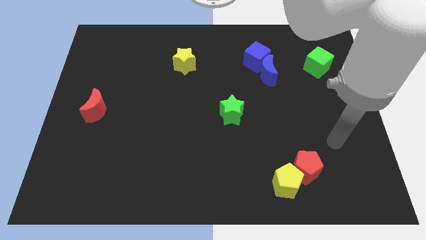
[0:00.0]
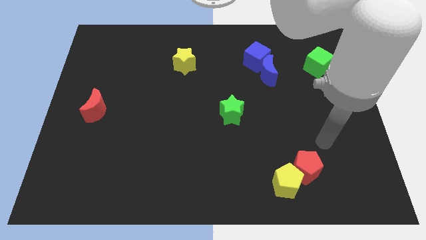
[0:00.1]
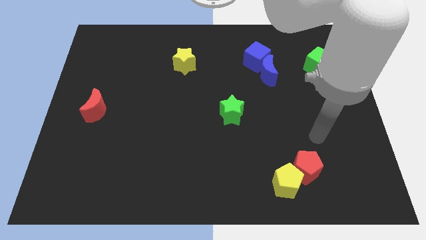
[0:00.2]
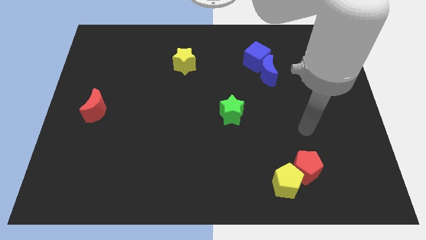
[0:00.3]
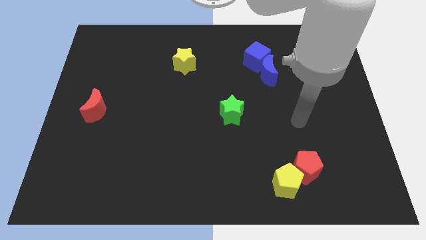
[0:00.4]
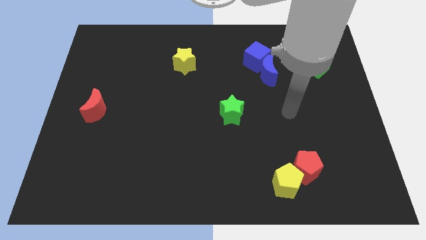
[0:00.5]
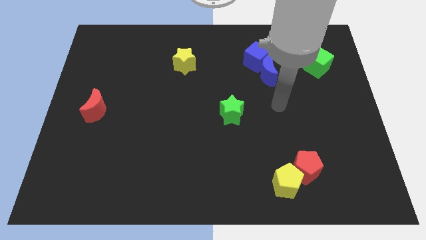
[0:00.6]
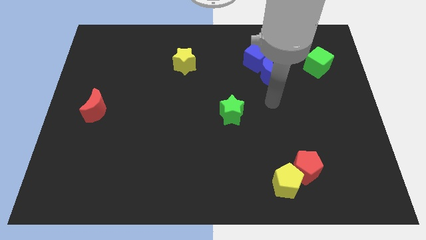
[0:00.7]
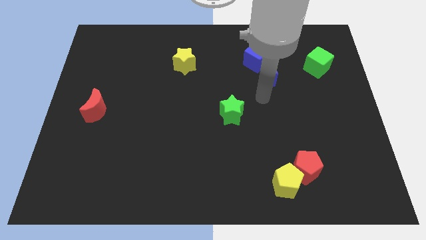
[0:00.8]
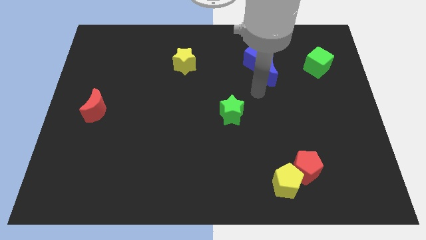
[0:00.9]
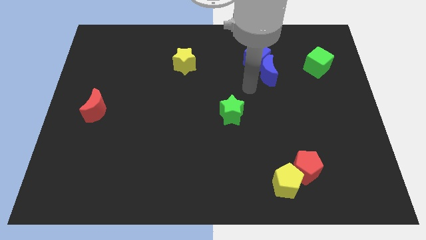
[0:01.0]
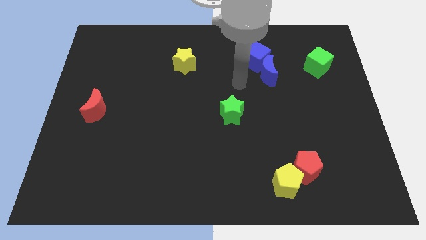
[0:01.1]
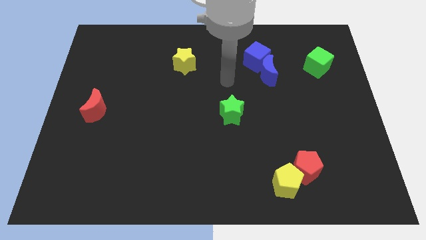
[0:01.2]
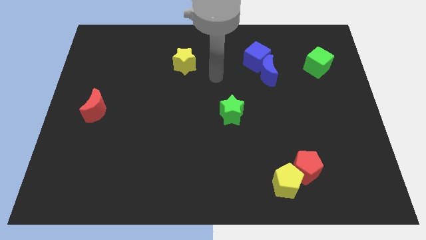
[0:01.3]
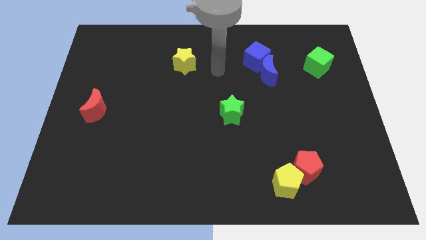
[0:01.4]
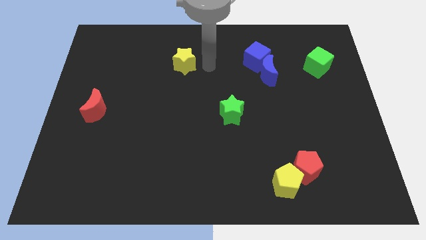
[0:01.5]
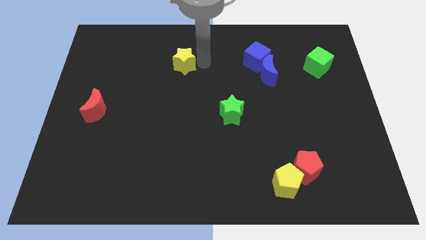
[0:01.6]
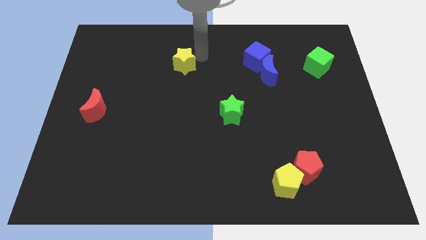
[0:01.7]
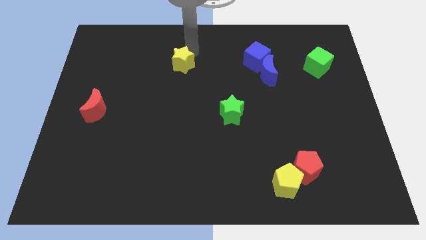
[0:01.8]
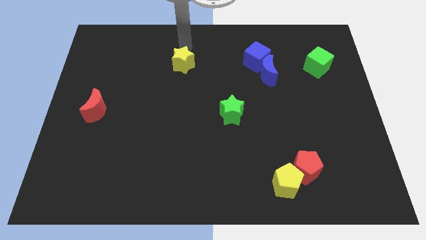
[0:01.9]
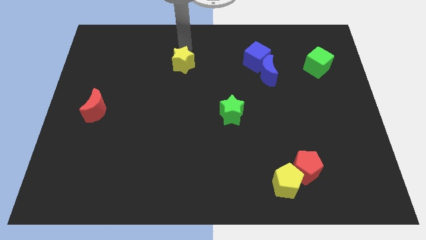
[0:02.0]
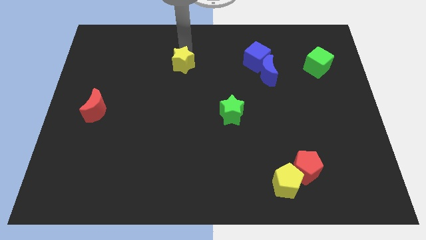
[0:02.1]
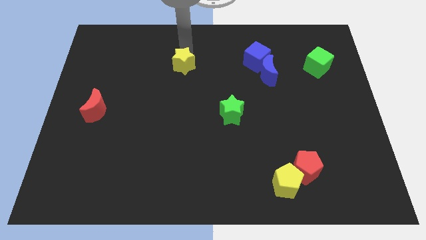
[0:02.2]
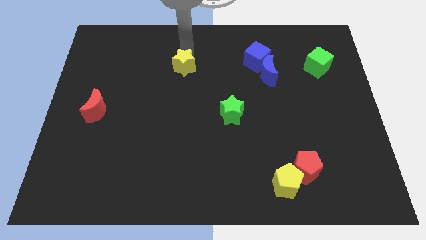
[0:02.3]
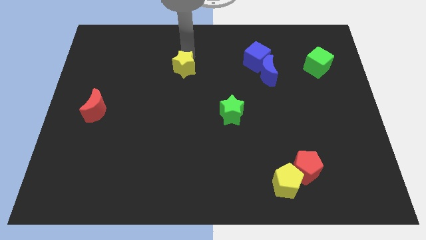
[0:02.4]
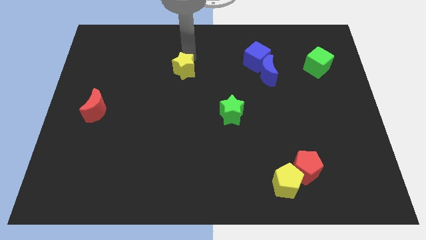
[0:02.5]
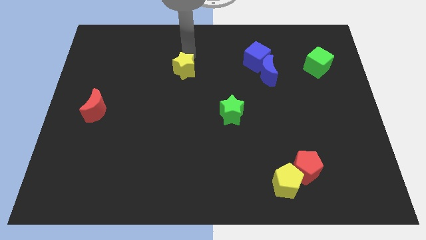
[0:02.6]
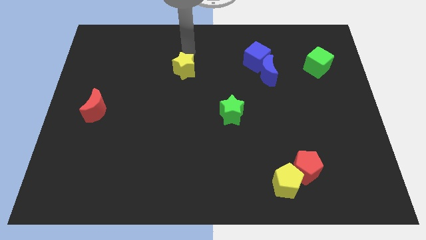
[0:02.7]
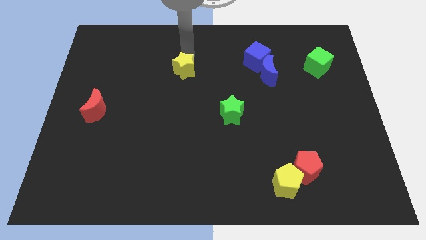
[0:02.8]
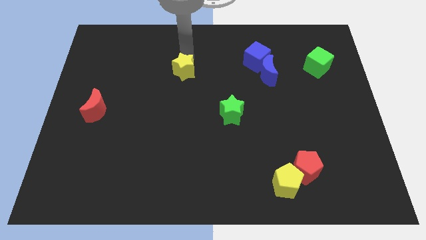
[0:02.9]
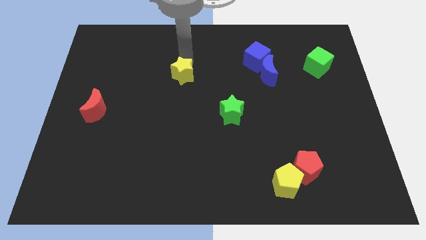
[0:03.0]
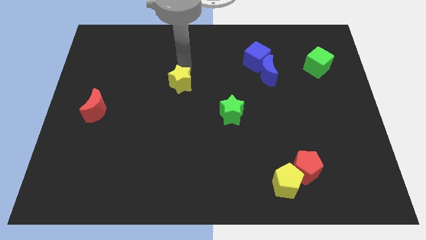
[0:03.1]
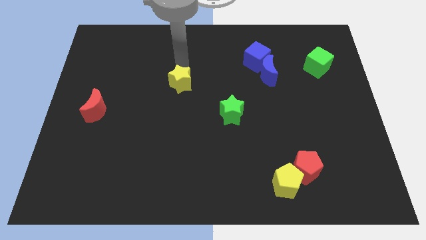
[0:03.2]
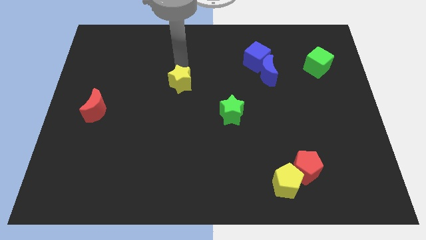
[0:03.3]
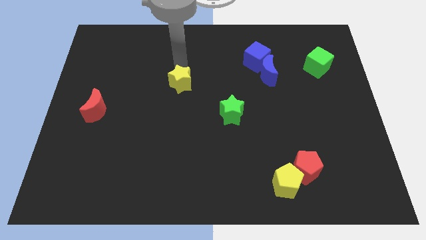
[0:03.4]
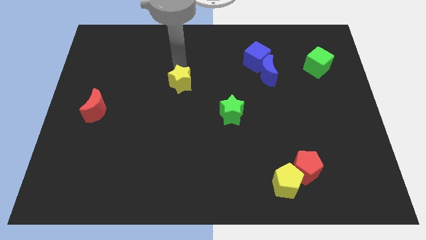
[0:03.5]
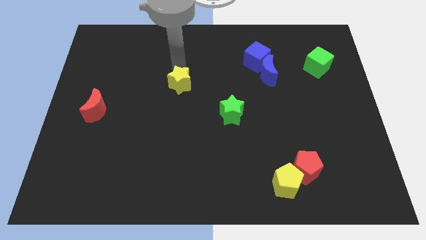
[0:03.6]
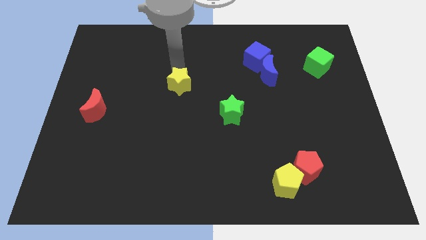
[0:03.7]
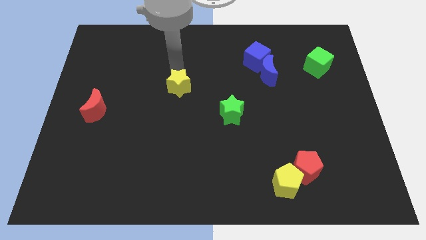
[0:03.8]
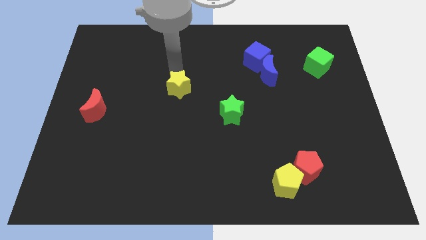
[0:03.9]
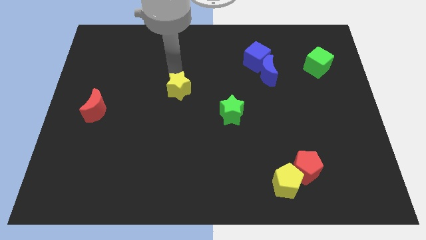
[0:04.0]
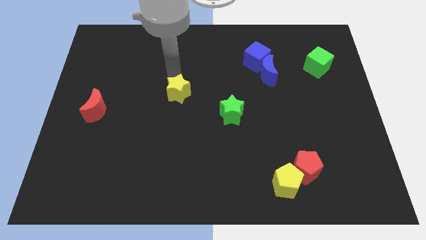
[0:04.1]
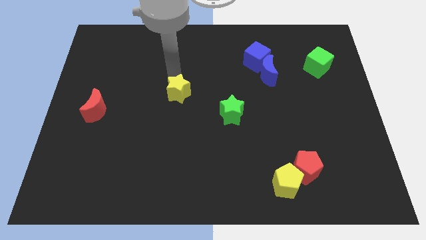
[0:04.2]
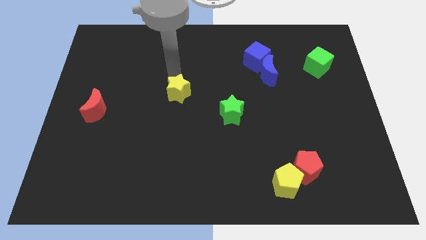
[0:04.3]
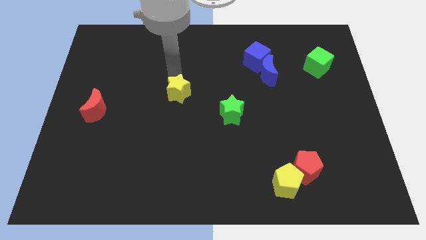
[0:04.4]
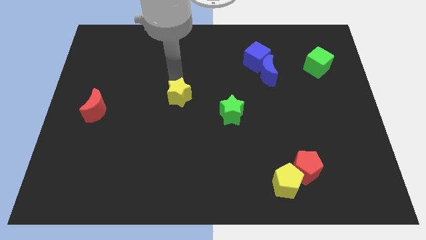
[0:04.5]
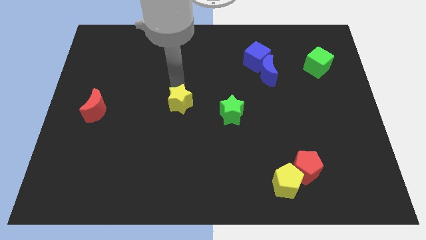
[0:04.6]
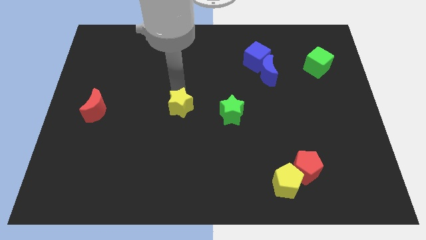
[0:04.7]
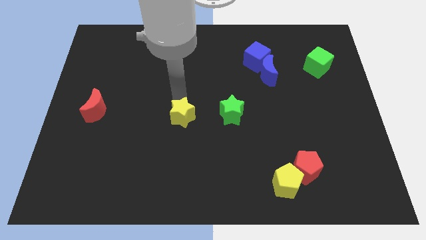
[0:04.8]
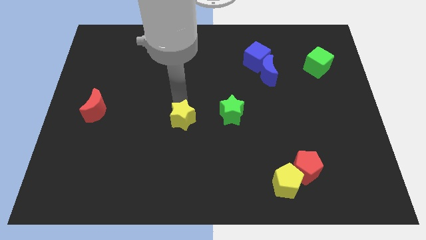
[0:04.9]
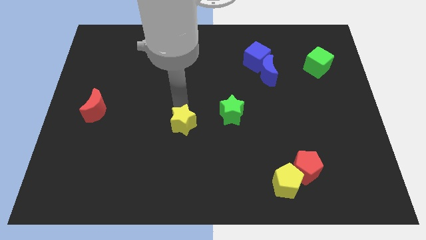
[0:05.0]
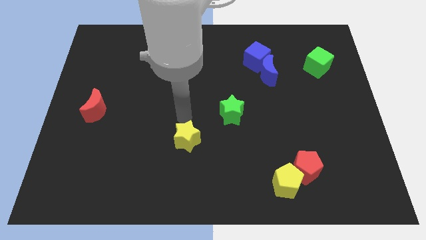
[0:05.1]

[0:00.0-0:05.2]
slide the yellow star down

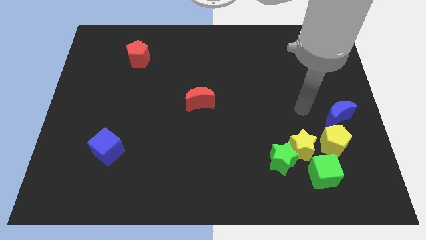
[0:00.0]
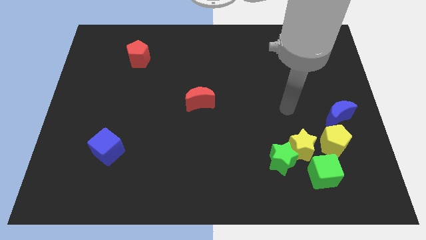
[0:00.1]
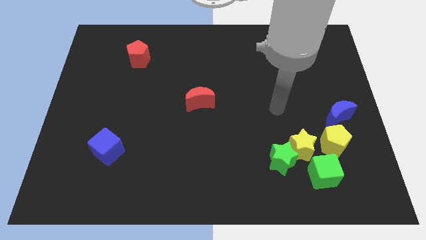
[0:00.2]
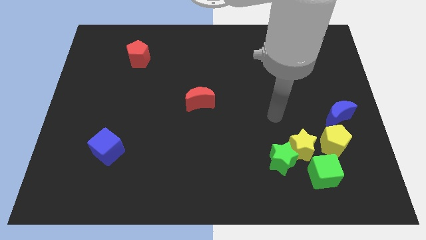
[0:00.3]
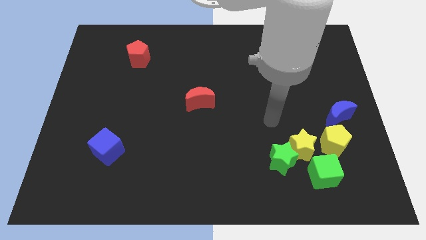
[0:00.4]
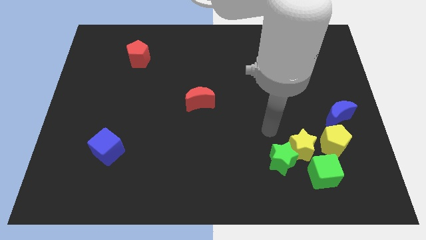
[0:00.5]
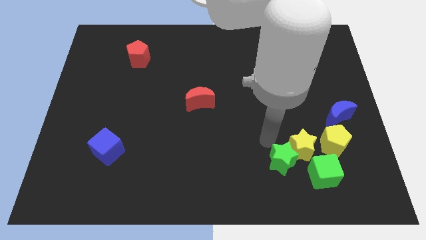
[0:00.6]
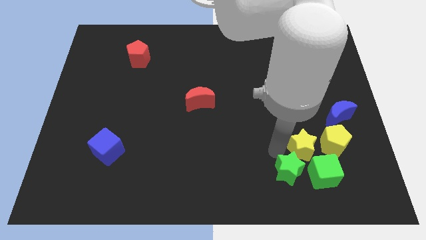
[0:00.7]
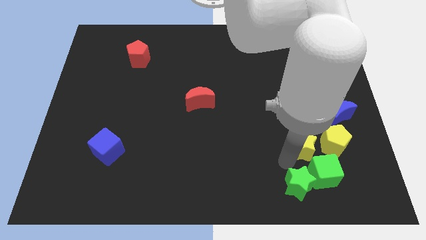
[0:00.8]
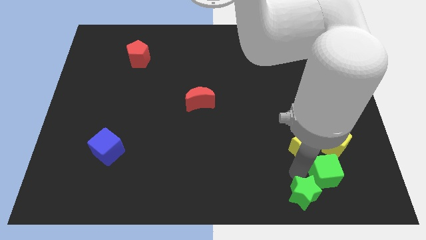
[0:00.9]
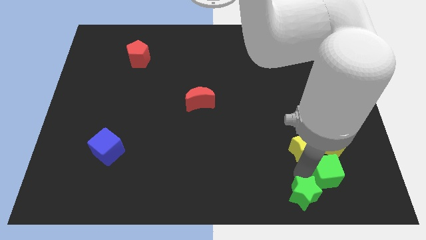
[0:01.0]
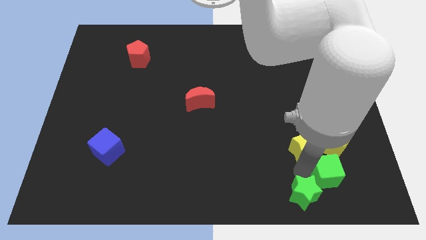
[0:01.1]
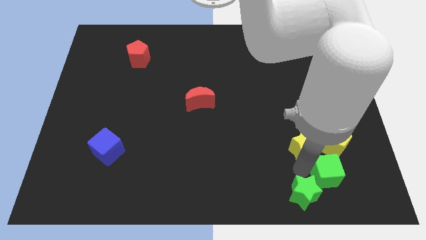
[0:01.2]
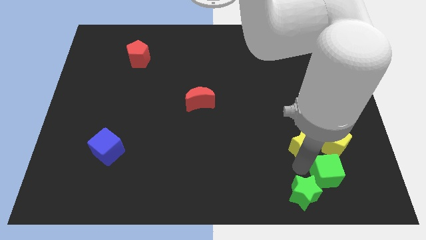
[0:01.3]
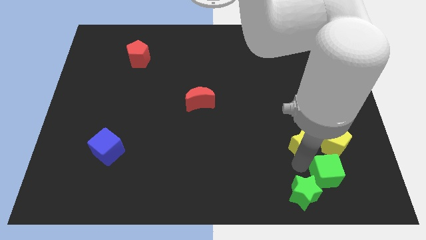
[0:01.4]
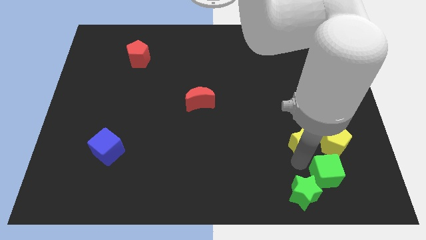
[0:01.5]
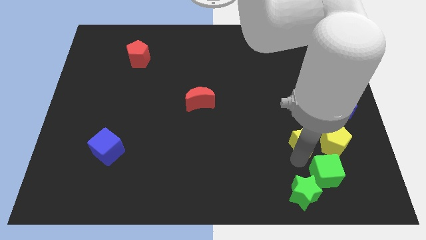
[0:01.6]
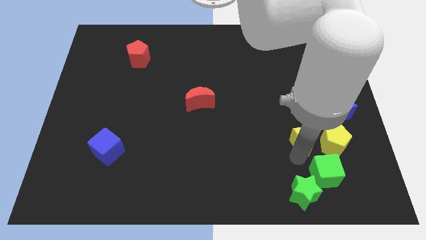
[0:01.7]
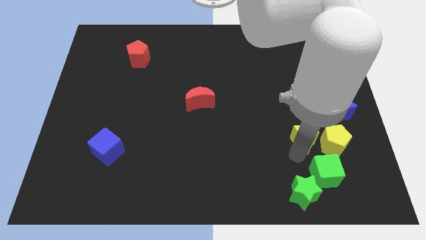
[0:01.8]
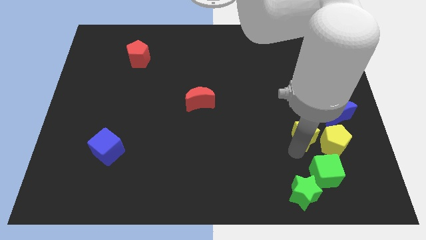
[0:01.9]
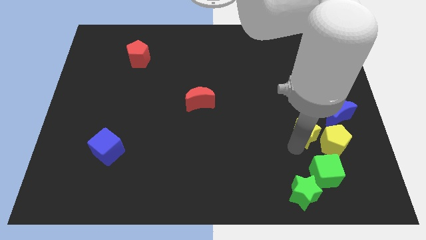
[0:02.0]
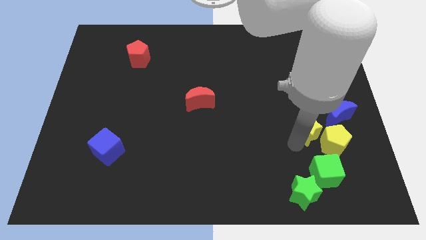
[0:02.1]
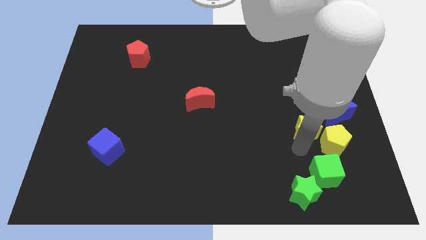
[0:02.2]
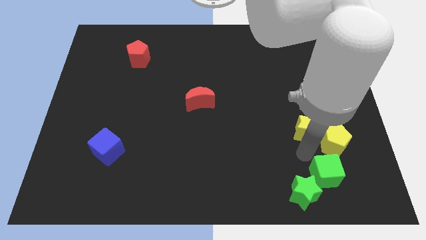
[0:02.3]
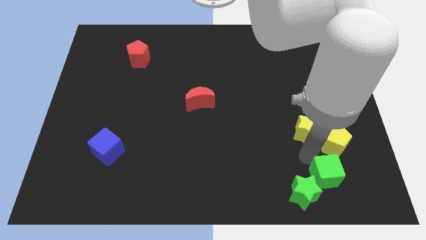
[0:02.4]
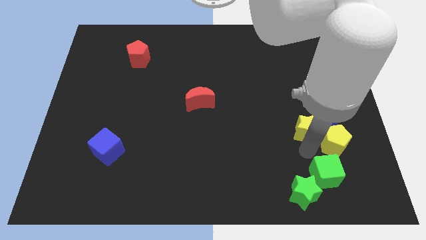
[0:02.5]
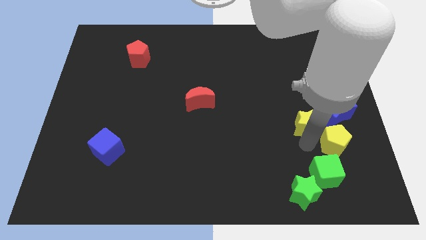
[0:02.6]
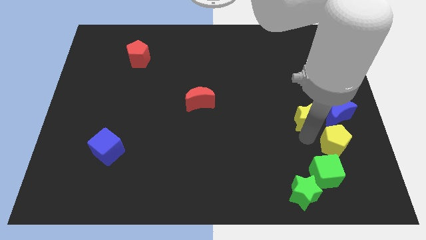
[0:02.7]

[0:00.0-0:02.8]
slightly move the yellow star up

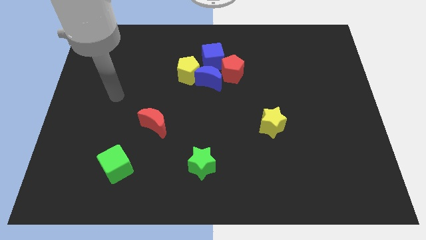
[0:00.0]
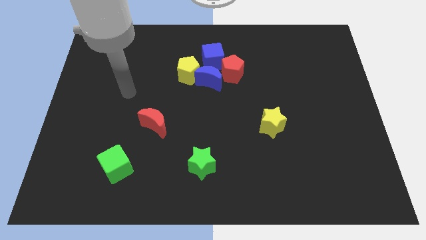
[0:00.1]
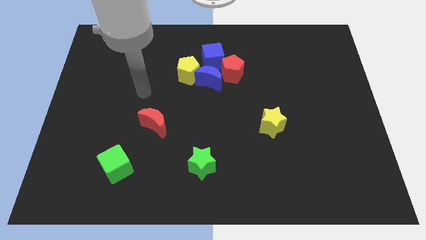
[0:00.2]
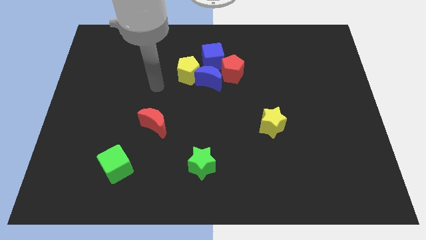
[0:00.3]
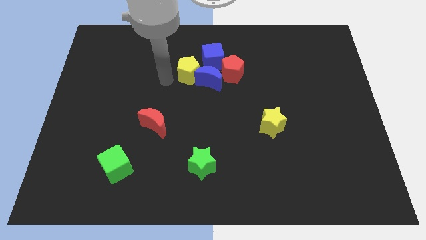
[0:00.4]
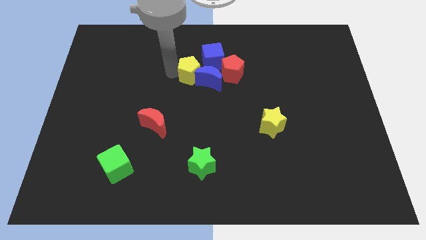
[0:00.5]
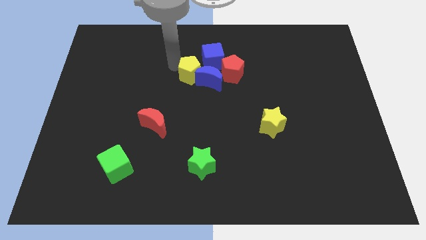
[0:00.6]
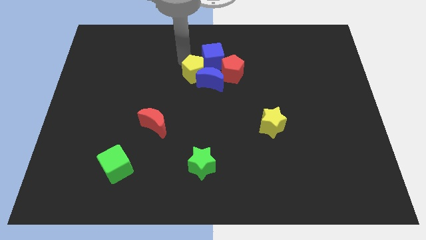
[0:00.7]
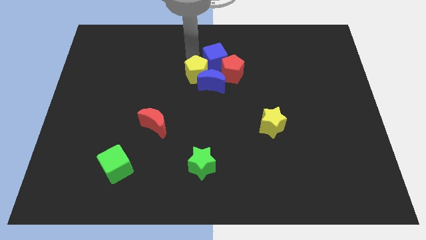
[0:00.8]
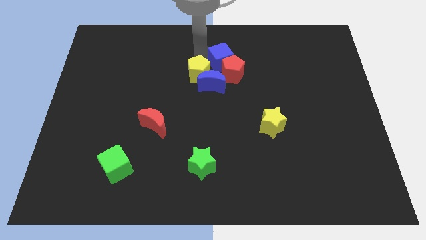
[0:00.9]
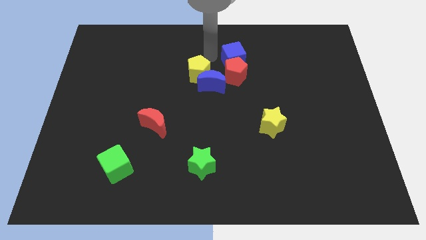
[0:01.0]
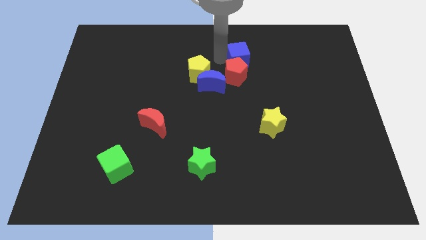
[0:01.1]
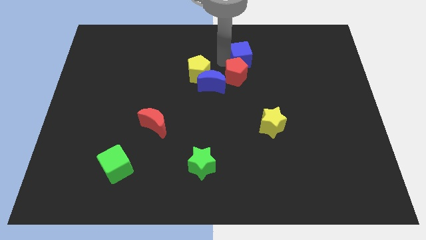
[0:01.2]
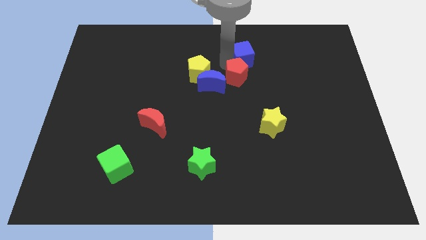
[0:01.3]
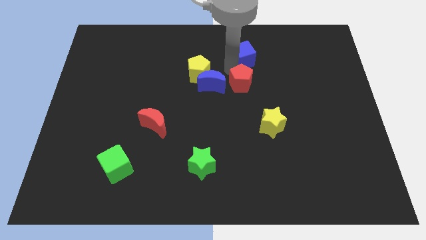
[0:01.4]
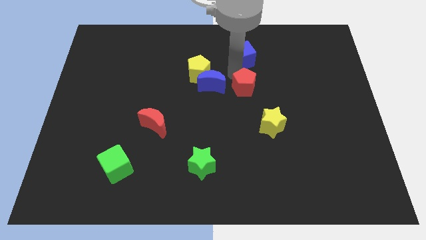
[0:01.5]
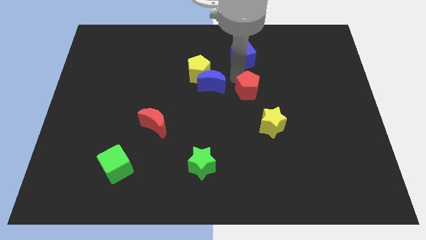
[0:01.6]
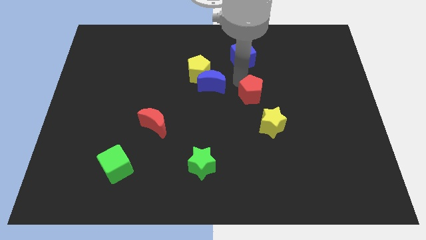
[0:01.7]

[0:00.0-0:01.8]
move the red pentagon somewhat downwards and then right
